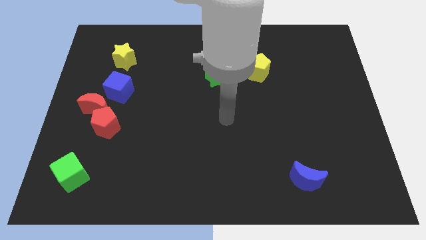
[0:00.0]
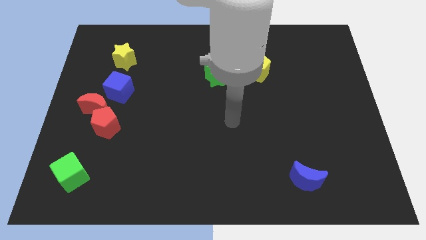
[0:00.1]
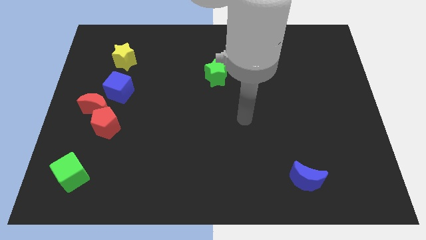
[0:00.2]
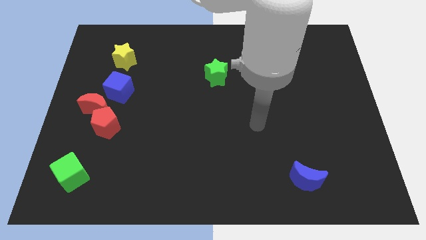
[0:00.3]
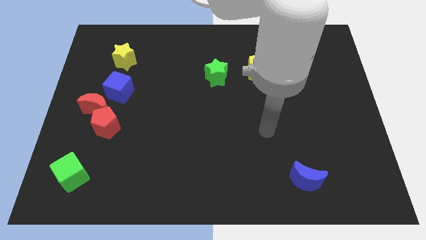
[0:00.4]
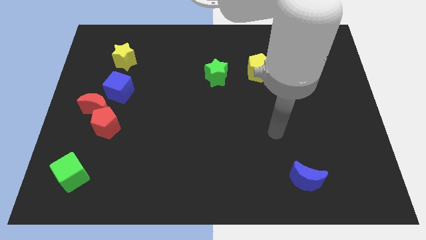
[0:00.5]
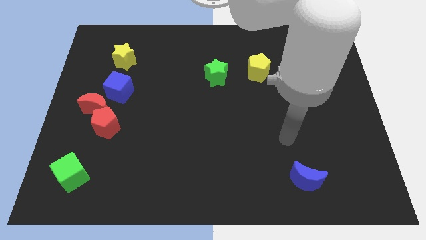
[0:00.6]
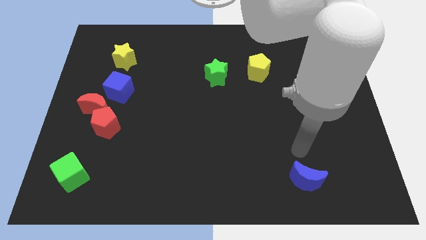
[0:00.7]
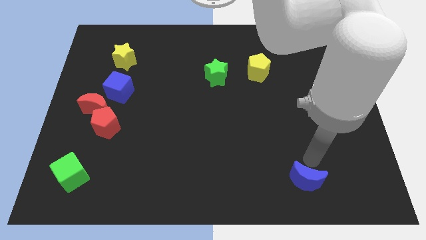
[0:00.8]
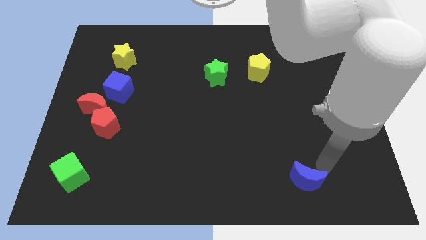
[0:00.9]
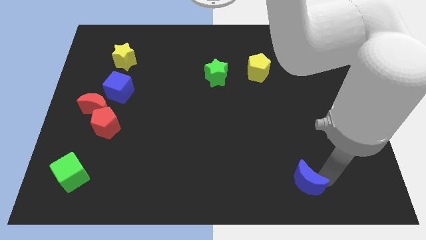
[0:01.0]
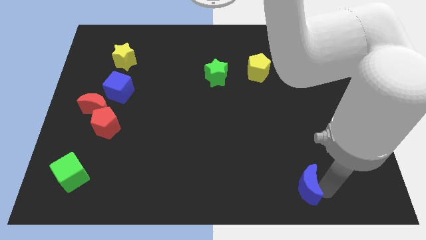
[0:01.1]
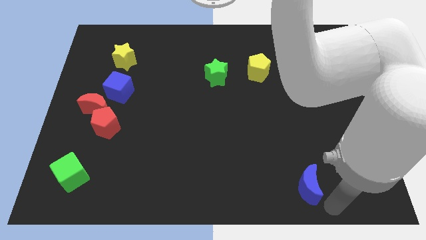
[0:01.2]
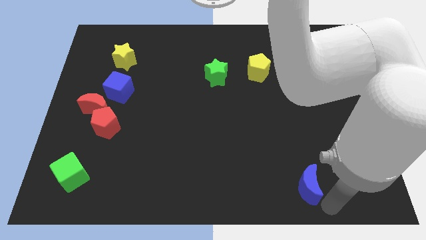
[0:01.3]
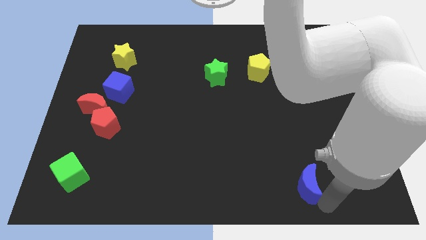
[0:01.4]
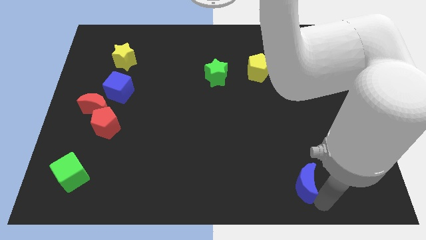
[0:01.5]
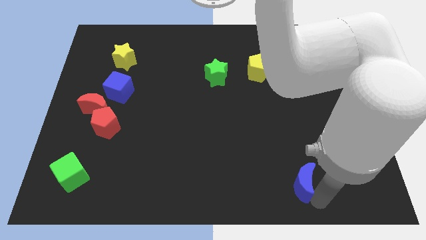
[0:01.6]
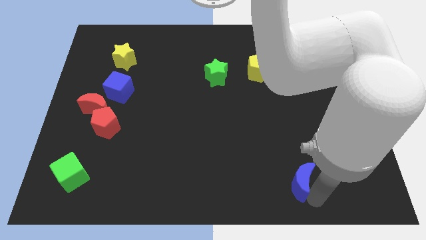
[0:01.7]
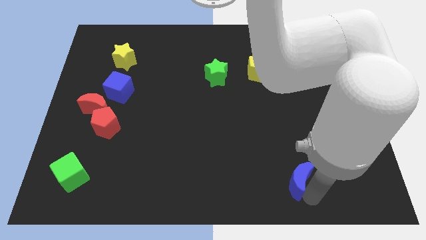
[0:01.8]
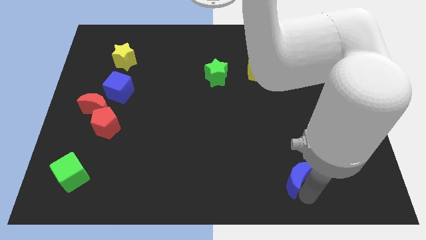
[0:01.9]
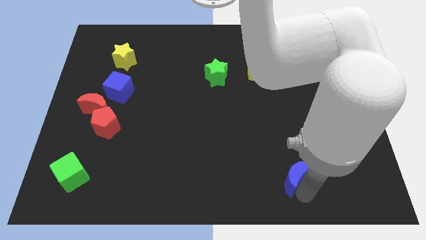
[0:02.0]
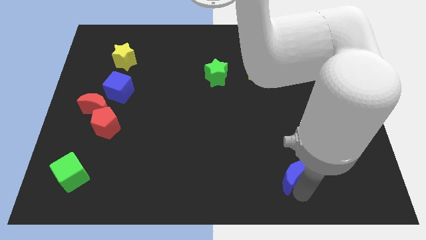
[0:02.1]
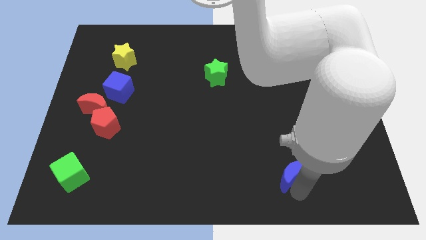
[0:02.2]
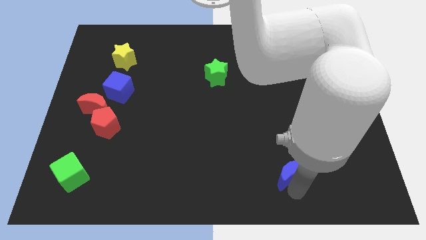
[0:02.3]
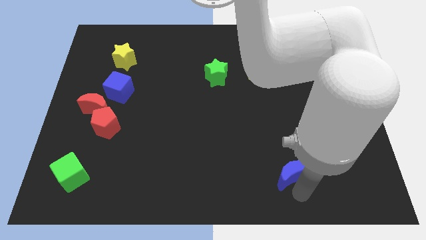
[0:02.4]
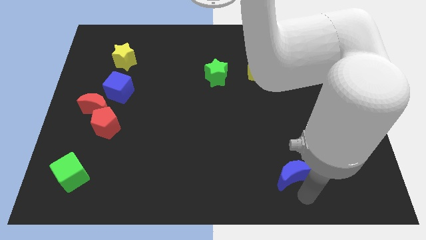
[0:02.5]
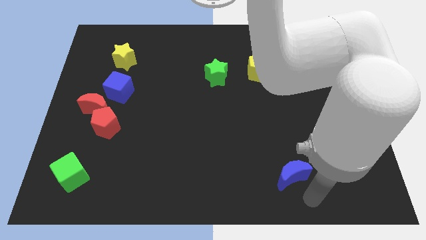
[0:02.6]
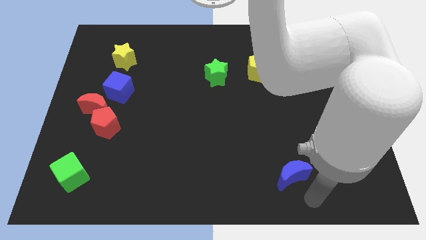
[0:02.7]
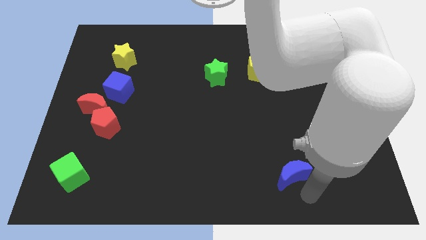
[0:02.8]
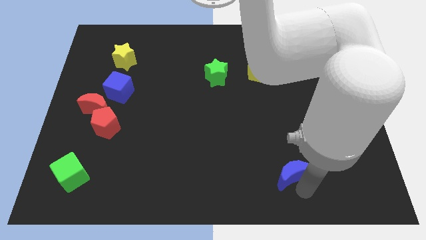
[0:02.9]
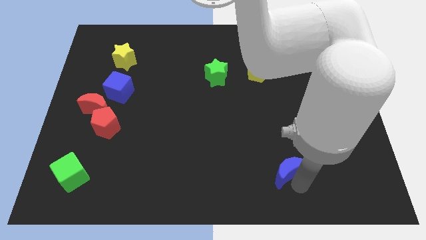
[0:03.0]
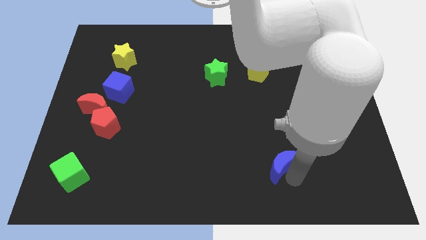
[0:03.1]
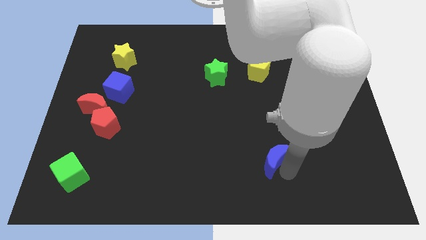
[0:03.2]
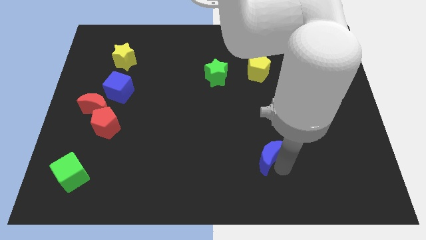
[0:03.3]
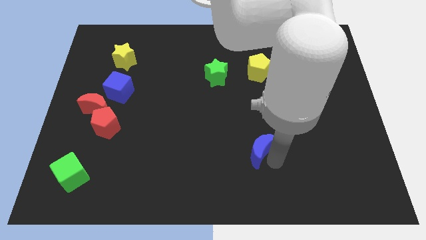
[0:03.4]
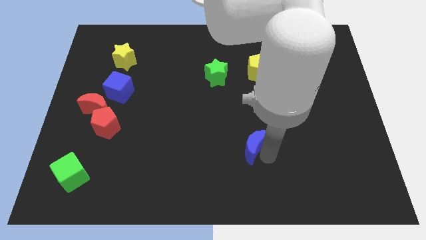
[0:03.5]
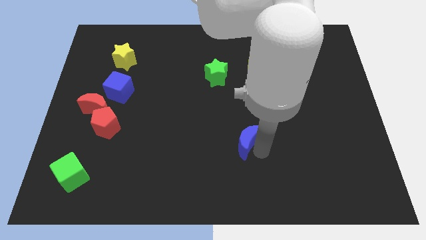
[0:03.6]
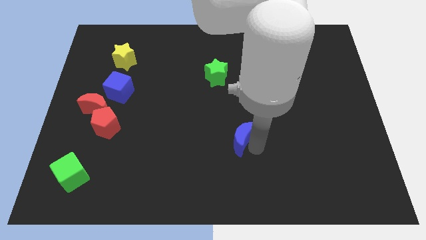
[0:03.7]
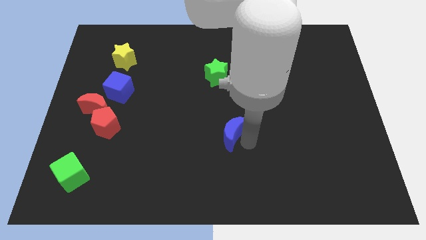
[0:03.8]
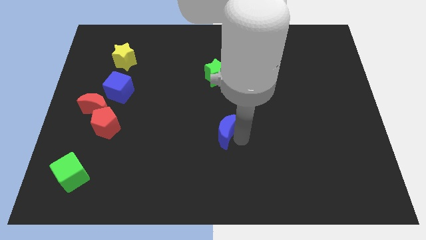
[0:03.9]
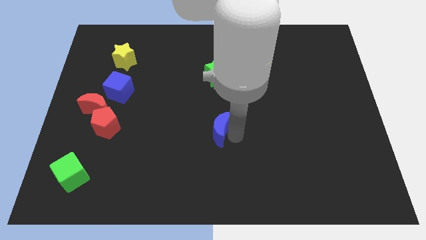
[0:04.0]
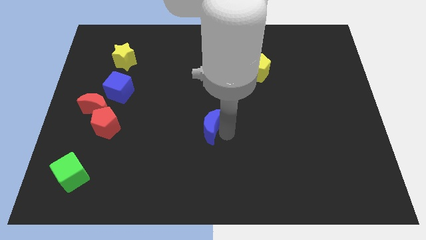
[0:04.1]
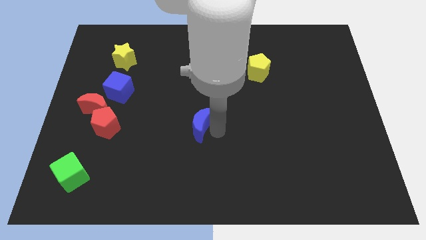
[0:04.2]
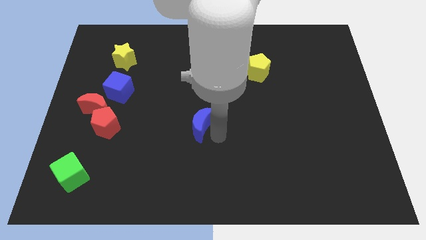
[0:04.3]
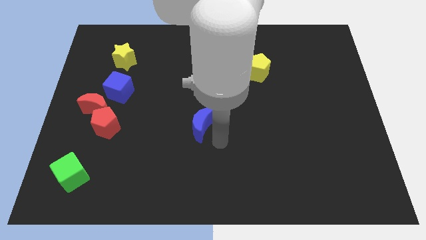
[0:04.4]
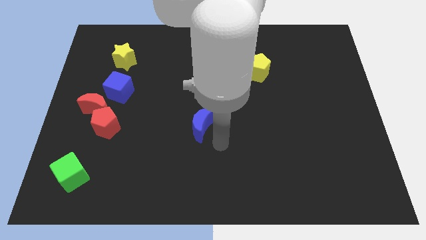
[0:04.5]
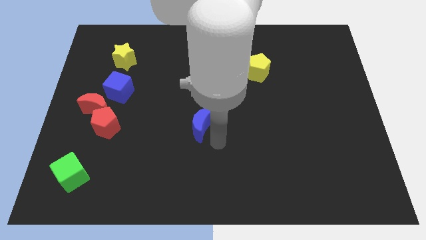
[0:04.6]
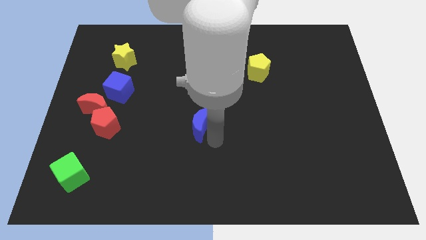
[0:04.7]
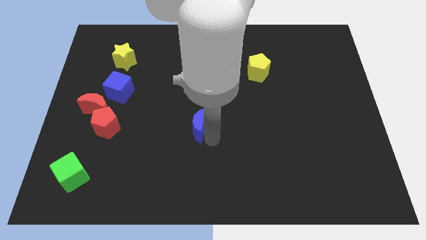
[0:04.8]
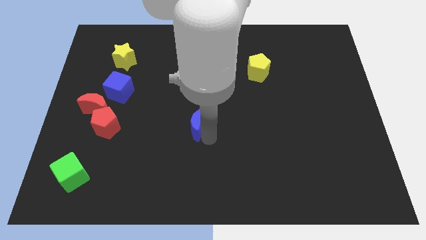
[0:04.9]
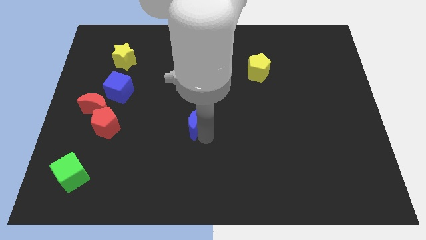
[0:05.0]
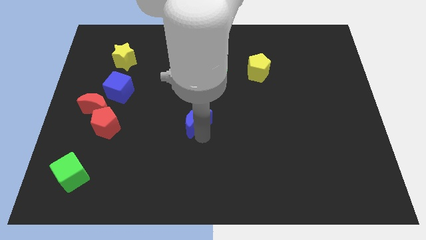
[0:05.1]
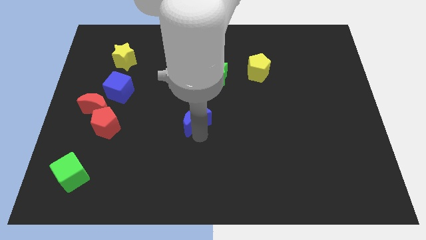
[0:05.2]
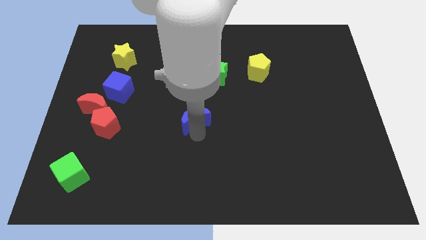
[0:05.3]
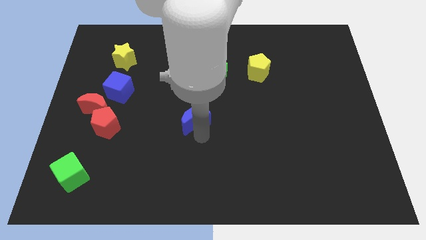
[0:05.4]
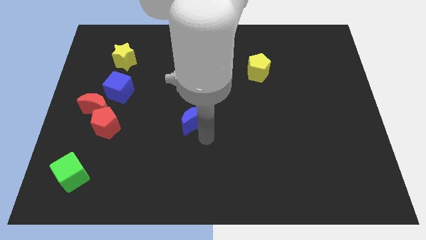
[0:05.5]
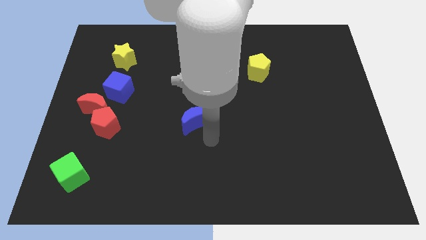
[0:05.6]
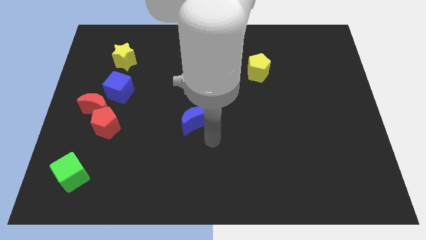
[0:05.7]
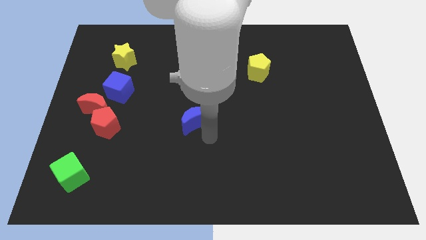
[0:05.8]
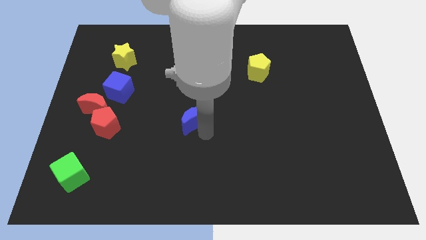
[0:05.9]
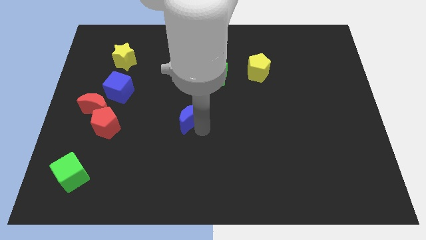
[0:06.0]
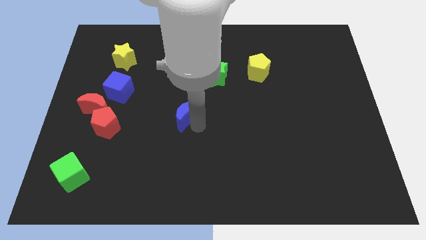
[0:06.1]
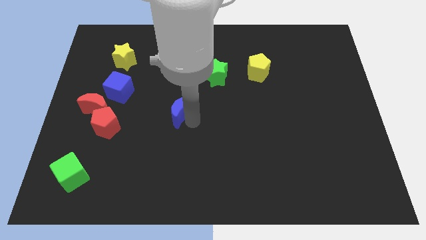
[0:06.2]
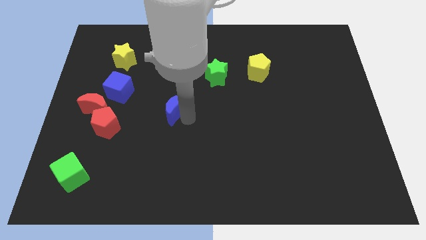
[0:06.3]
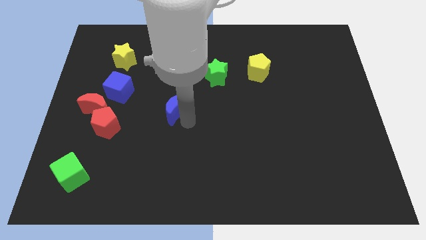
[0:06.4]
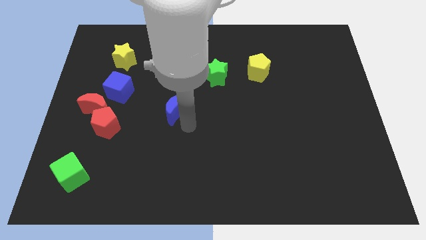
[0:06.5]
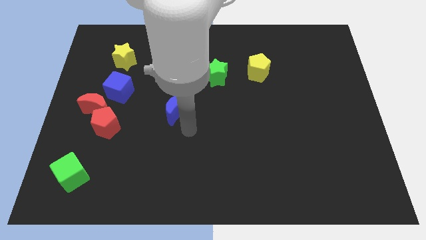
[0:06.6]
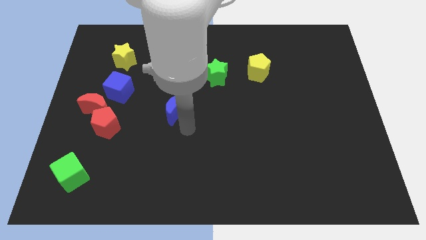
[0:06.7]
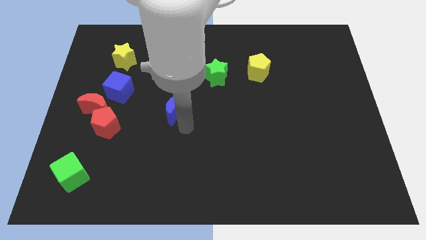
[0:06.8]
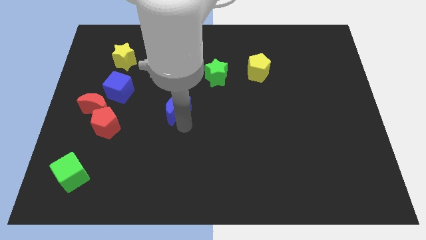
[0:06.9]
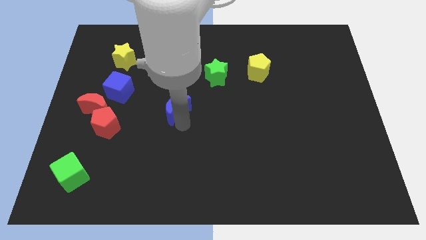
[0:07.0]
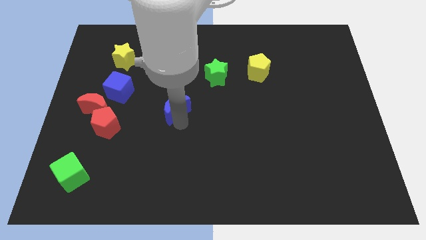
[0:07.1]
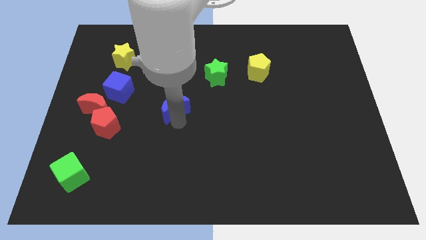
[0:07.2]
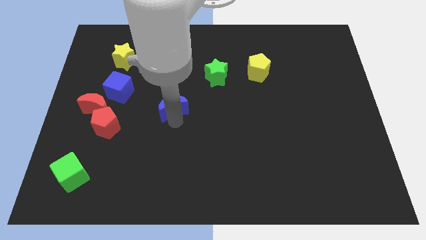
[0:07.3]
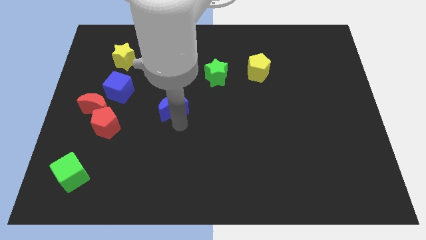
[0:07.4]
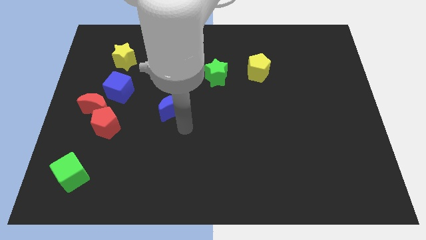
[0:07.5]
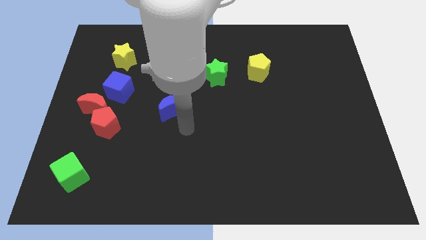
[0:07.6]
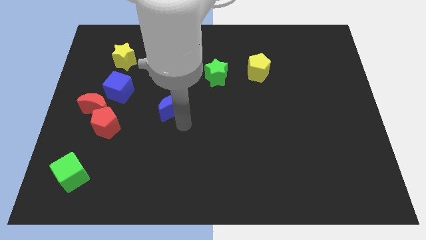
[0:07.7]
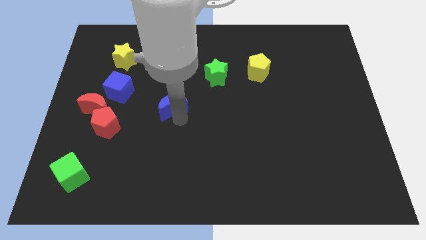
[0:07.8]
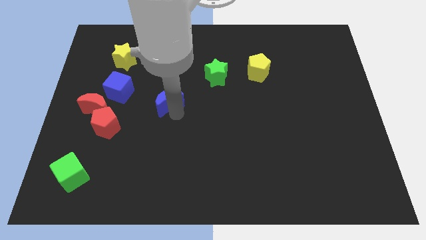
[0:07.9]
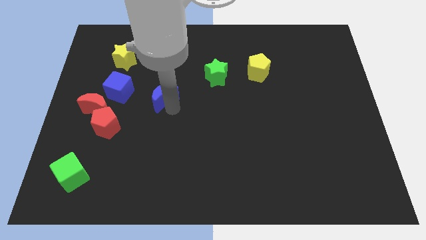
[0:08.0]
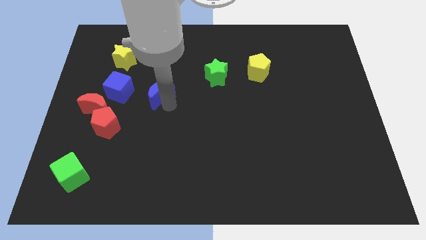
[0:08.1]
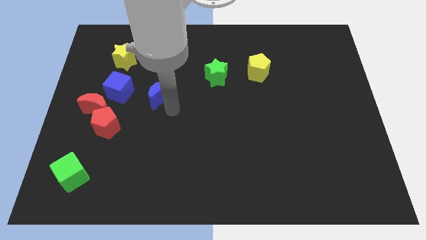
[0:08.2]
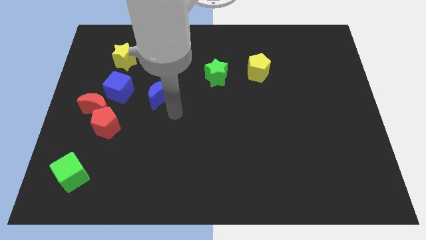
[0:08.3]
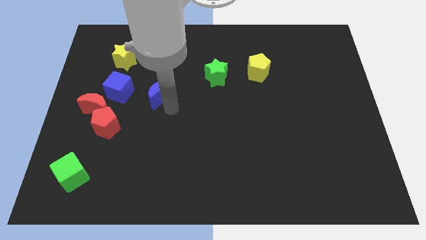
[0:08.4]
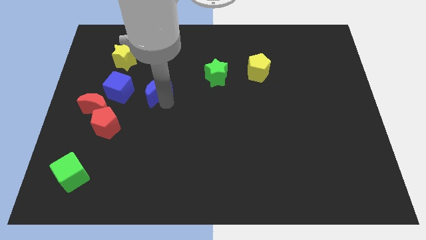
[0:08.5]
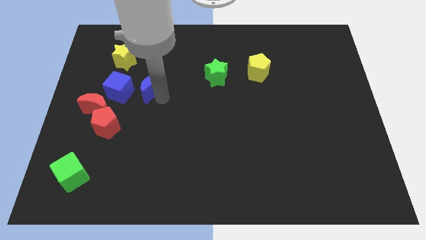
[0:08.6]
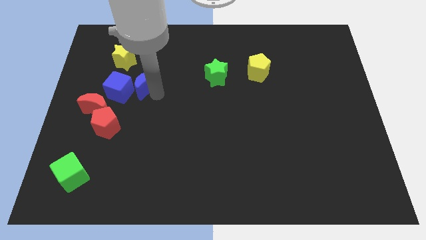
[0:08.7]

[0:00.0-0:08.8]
slide the blue moon to the top right side of the blue cube
